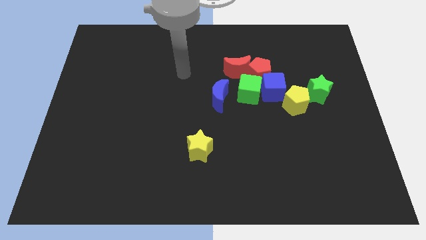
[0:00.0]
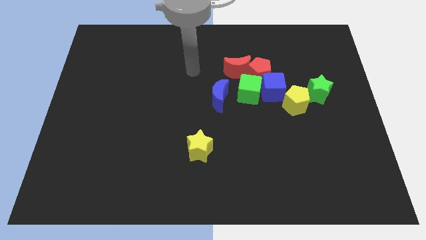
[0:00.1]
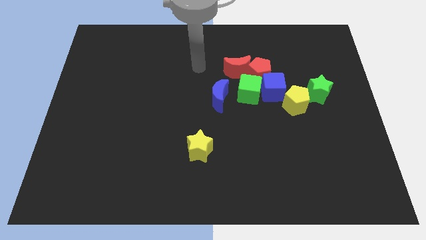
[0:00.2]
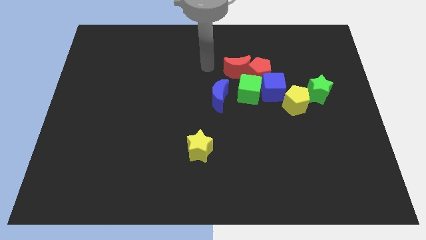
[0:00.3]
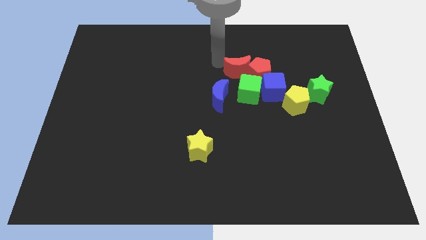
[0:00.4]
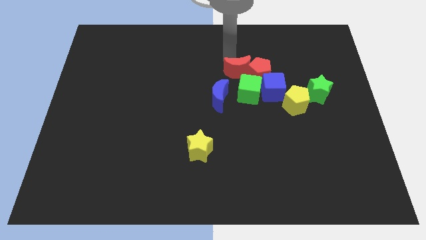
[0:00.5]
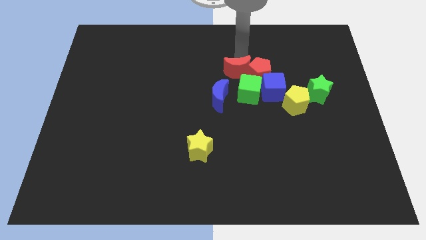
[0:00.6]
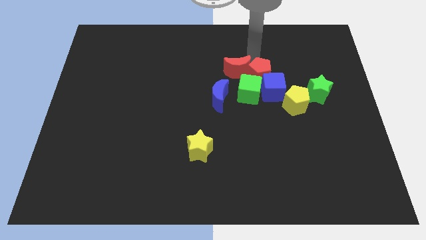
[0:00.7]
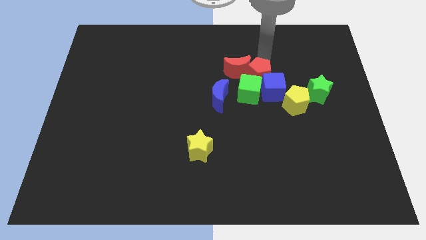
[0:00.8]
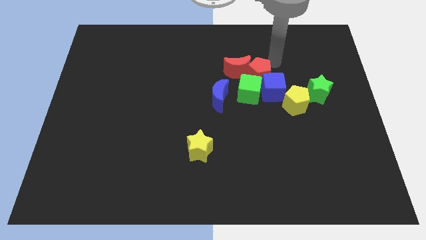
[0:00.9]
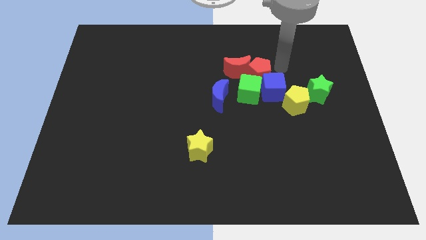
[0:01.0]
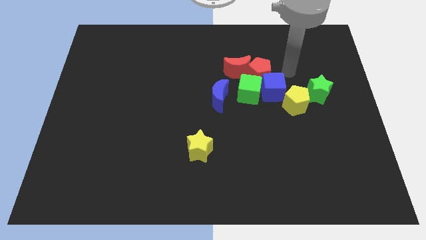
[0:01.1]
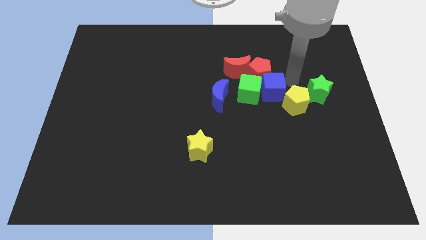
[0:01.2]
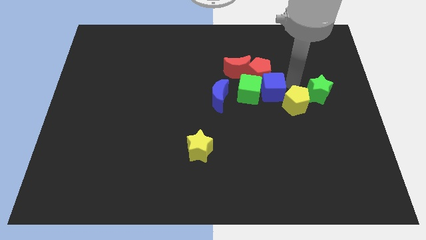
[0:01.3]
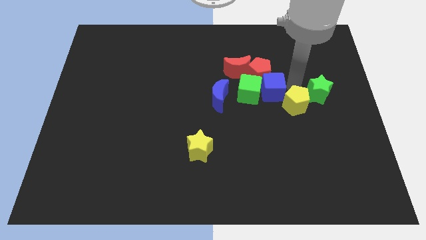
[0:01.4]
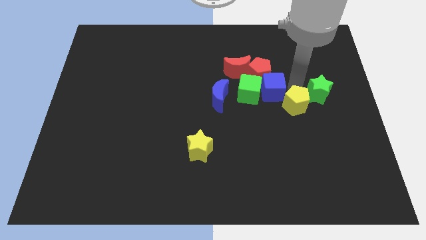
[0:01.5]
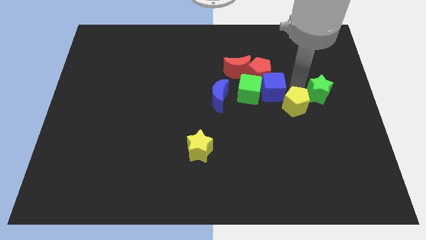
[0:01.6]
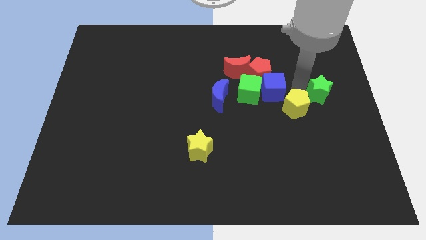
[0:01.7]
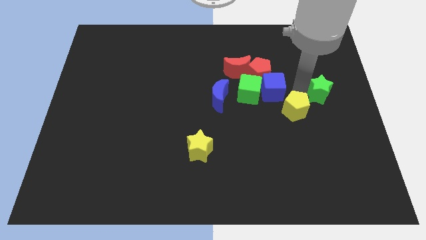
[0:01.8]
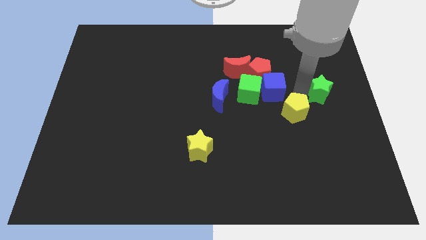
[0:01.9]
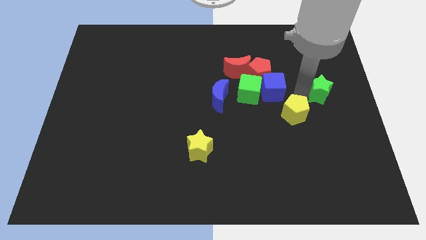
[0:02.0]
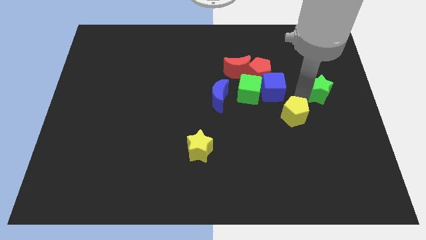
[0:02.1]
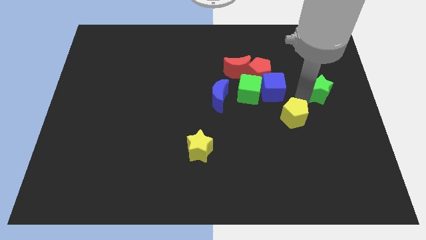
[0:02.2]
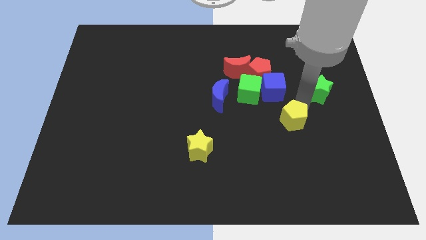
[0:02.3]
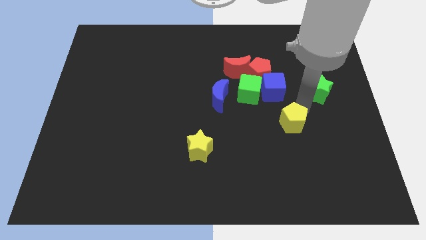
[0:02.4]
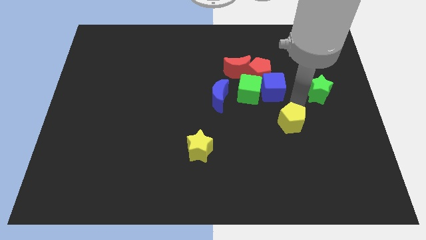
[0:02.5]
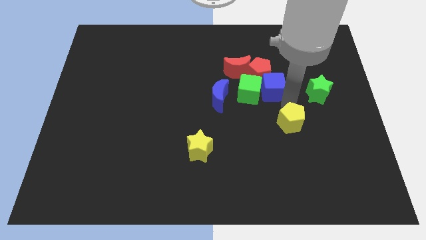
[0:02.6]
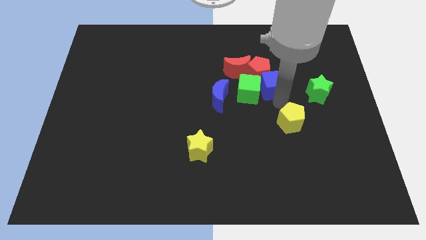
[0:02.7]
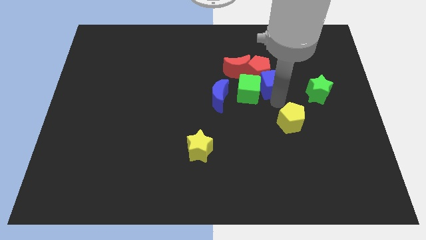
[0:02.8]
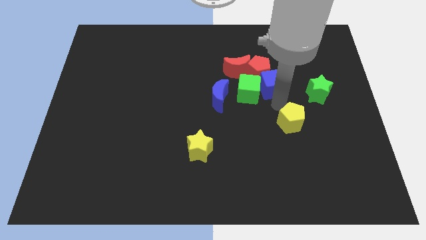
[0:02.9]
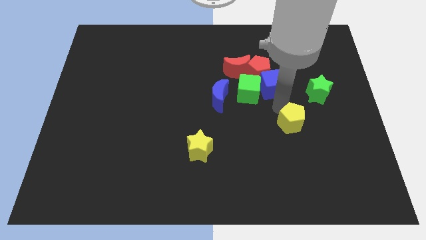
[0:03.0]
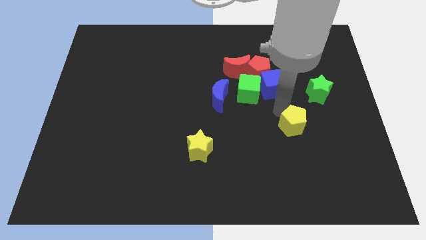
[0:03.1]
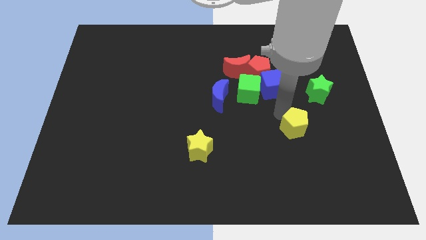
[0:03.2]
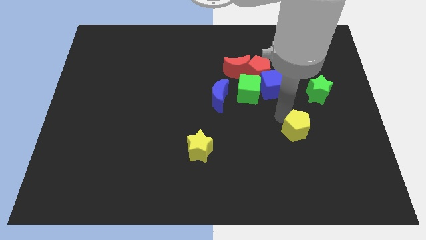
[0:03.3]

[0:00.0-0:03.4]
slightly slide the yellow pentagon downwards

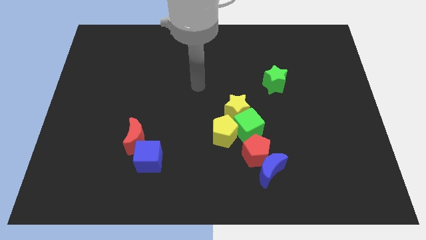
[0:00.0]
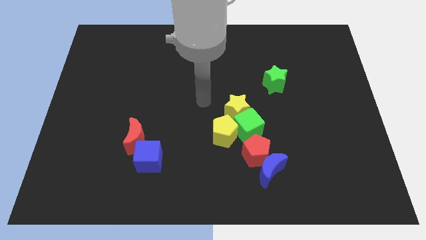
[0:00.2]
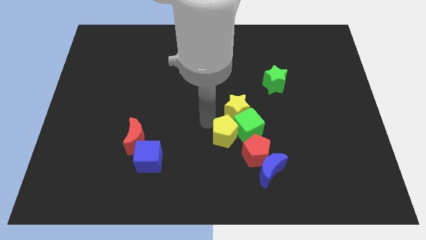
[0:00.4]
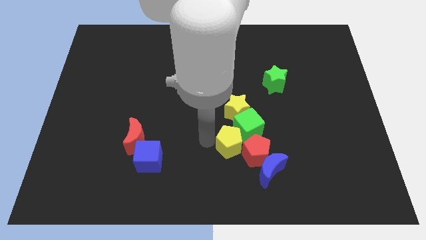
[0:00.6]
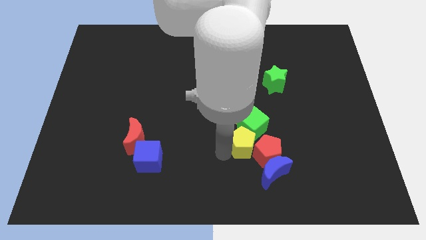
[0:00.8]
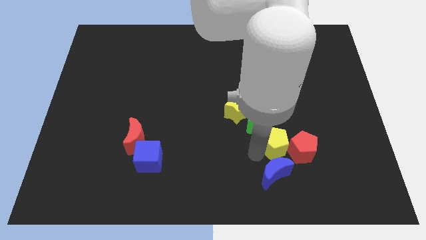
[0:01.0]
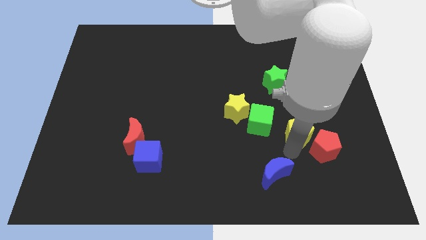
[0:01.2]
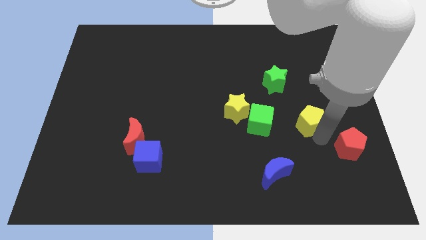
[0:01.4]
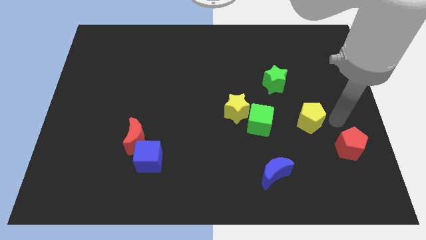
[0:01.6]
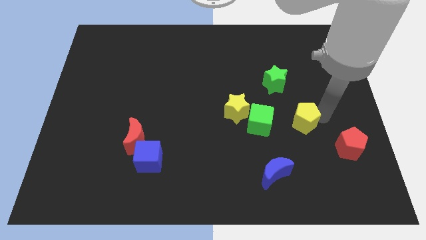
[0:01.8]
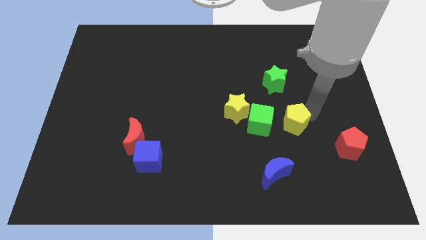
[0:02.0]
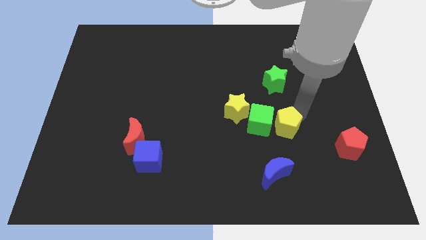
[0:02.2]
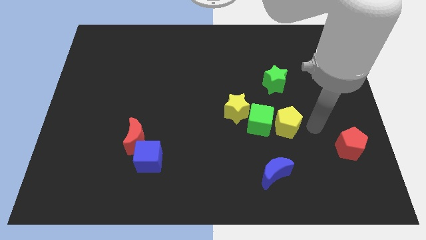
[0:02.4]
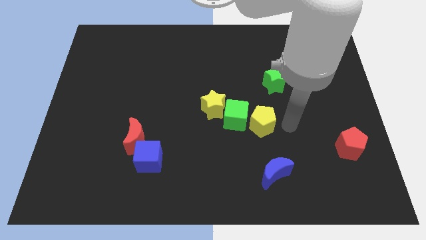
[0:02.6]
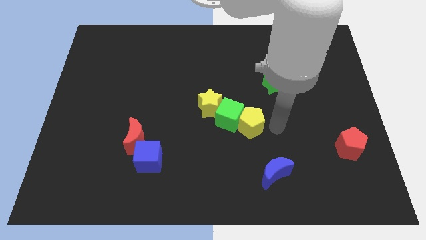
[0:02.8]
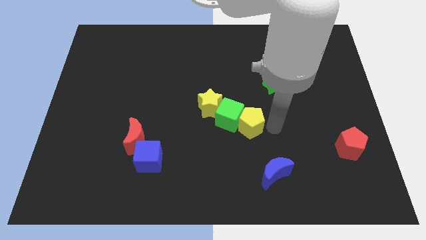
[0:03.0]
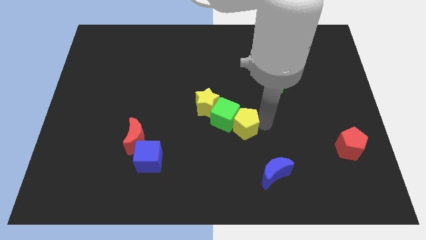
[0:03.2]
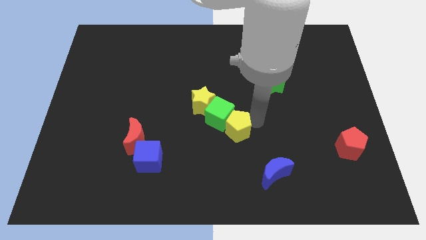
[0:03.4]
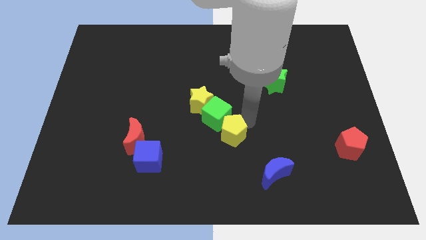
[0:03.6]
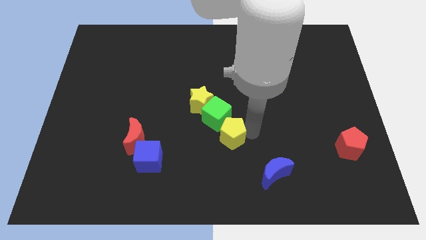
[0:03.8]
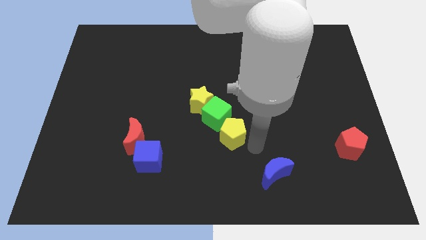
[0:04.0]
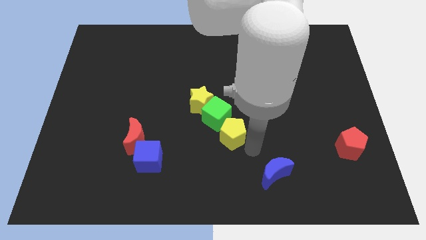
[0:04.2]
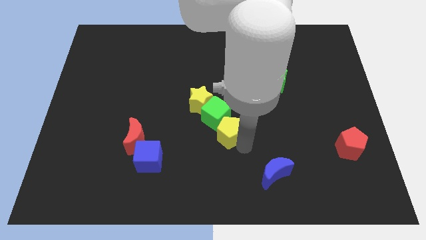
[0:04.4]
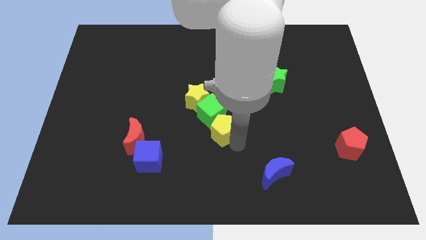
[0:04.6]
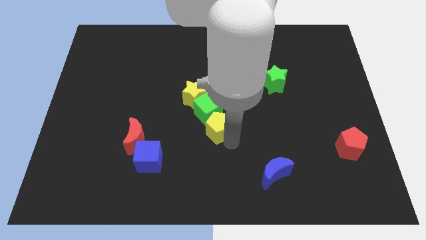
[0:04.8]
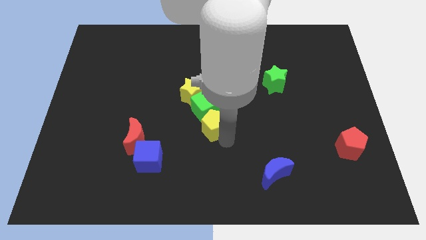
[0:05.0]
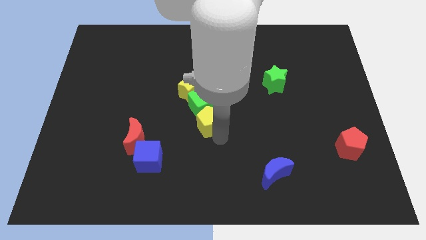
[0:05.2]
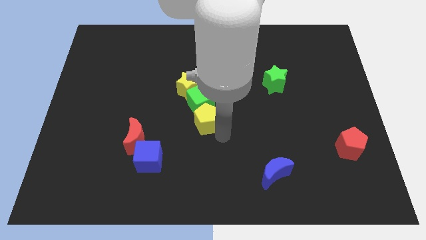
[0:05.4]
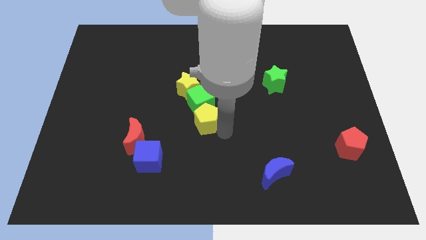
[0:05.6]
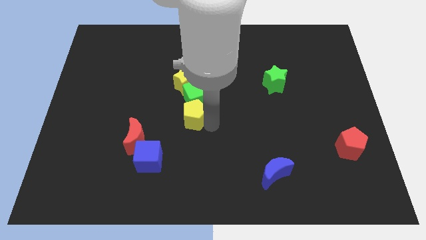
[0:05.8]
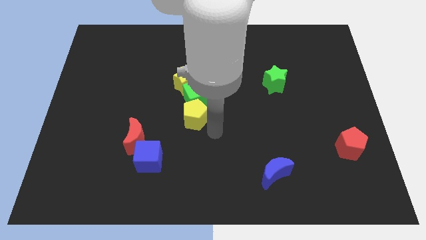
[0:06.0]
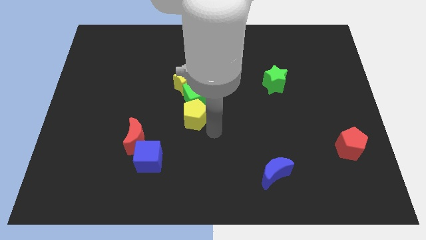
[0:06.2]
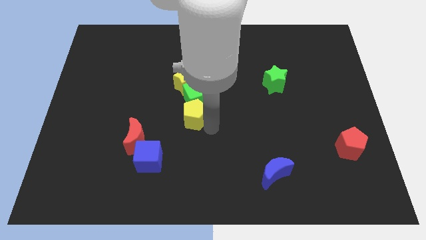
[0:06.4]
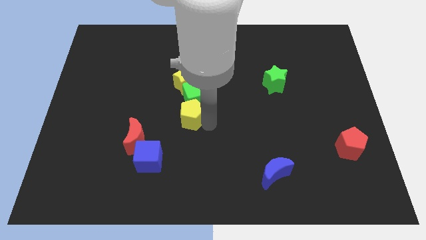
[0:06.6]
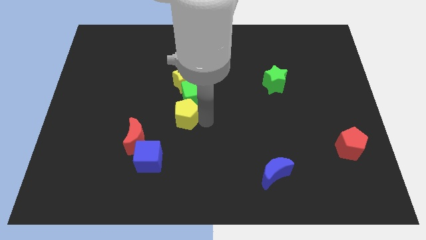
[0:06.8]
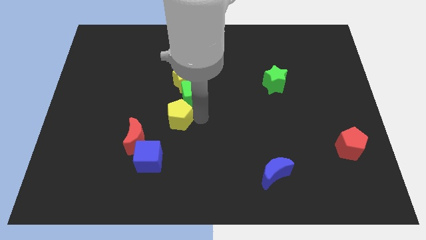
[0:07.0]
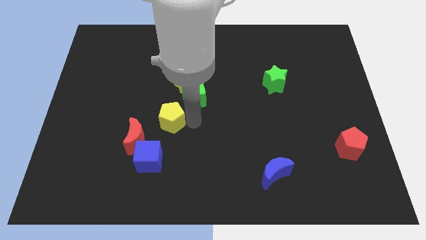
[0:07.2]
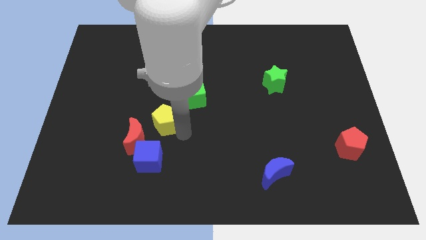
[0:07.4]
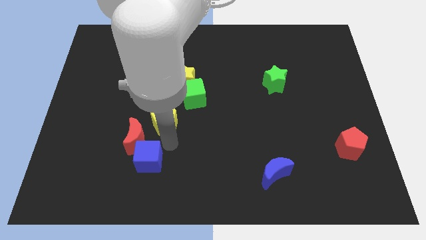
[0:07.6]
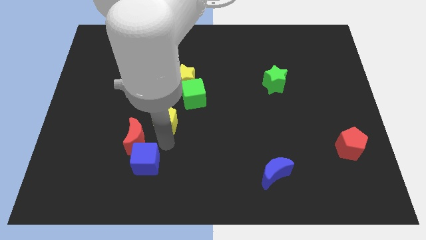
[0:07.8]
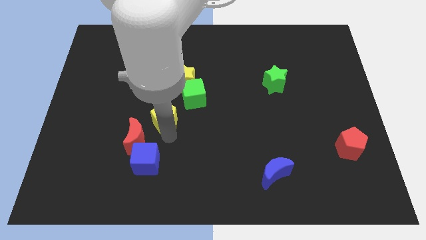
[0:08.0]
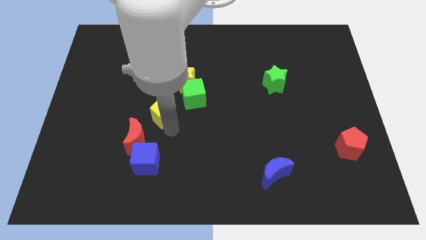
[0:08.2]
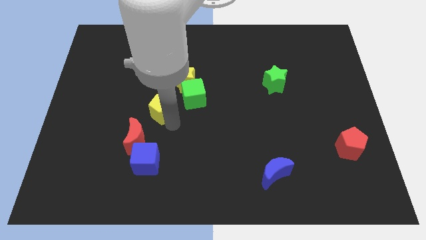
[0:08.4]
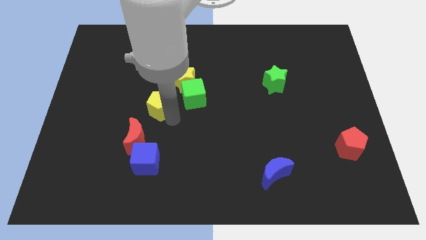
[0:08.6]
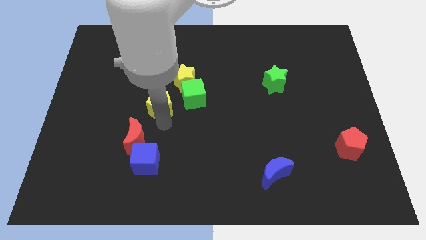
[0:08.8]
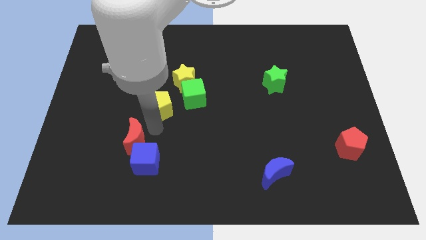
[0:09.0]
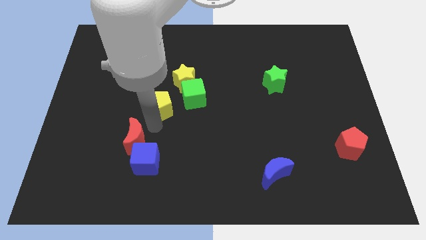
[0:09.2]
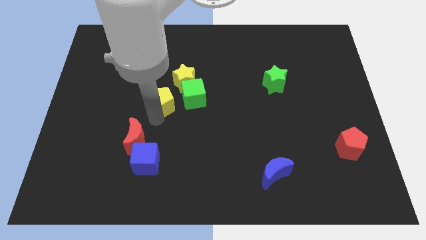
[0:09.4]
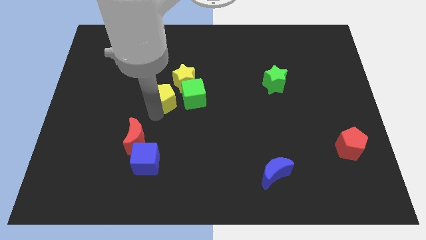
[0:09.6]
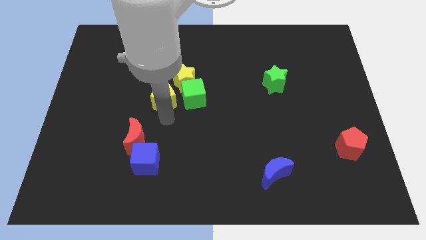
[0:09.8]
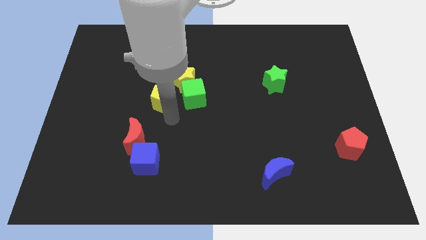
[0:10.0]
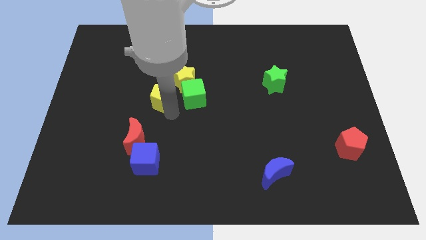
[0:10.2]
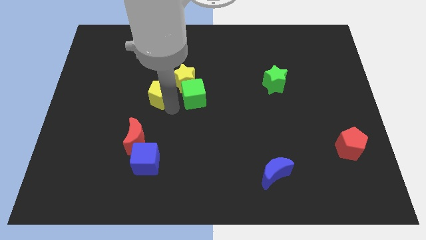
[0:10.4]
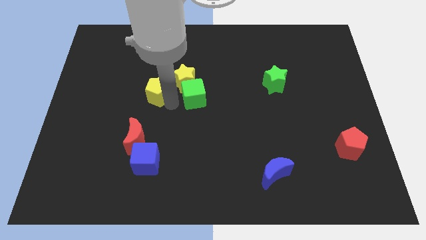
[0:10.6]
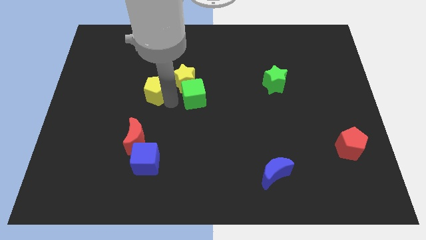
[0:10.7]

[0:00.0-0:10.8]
slide the yellow pentagon upwards and to the left
